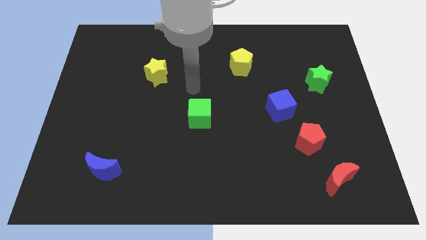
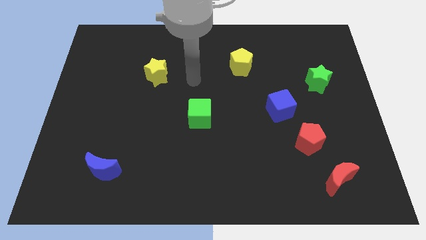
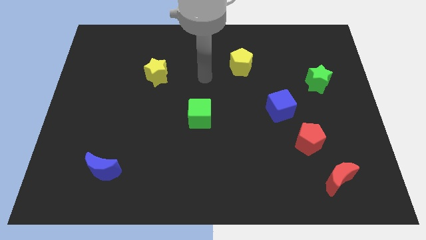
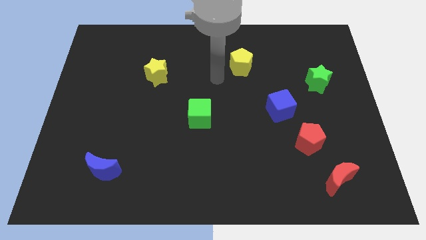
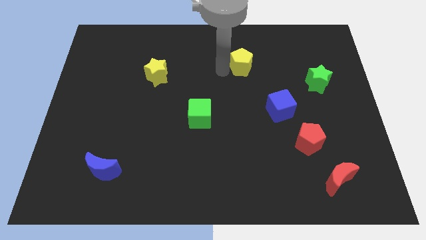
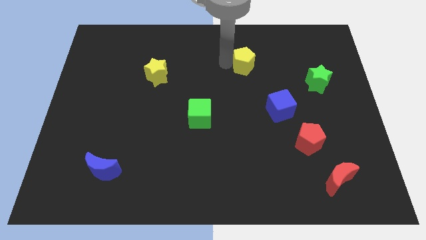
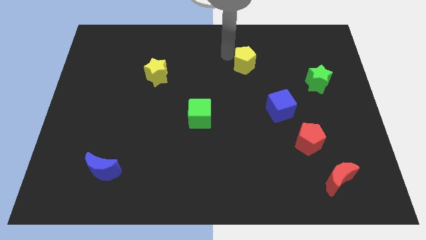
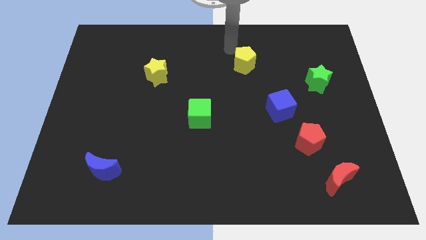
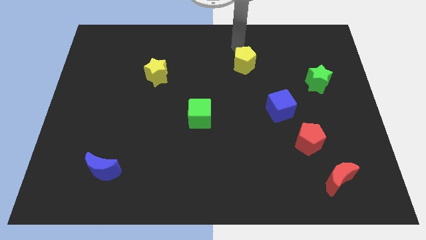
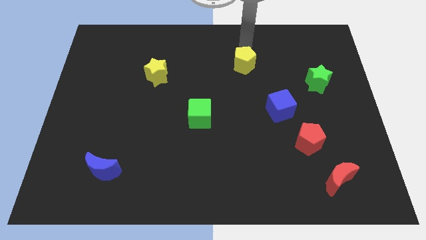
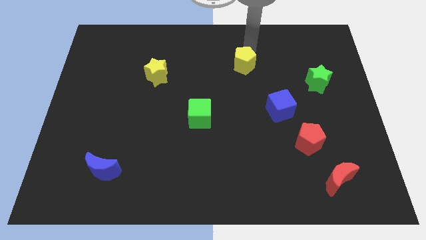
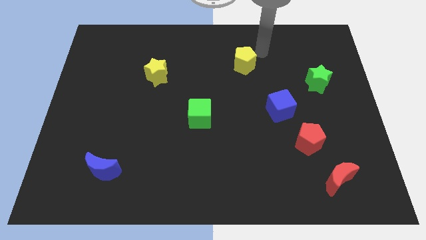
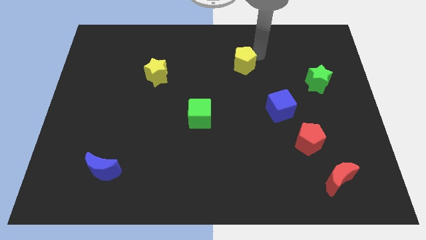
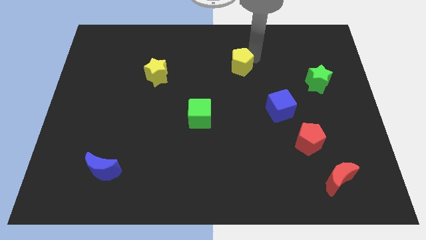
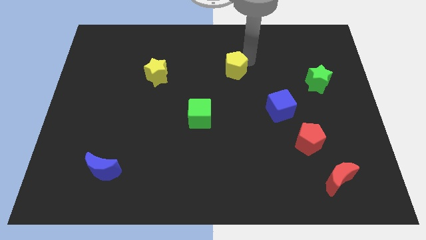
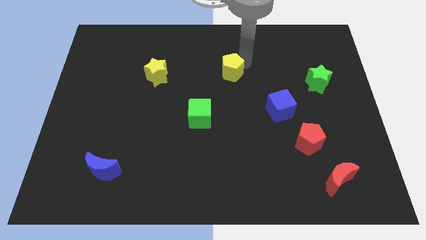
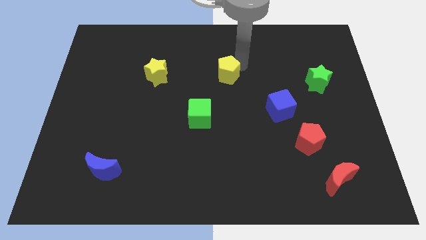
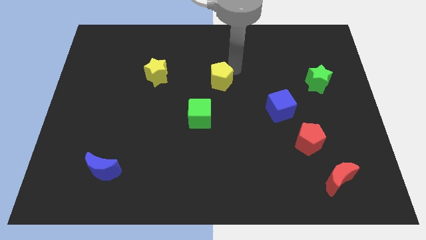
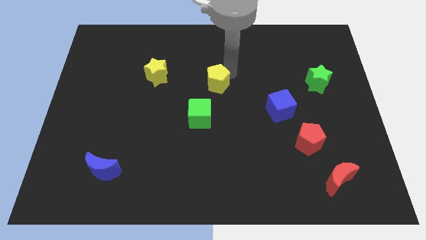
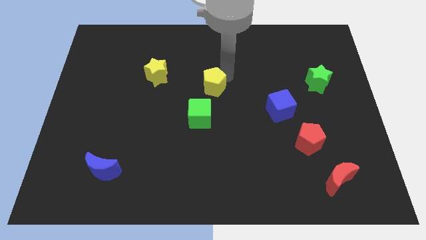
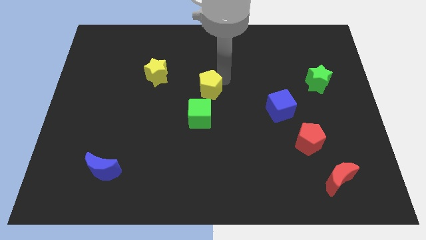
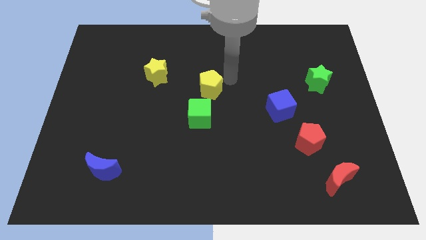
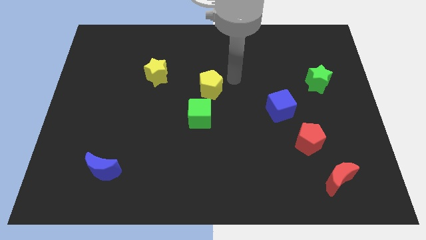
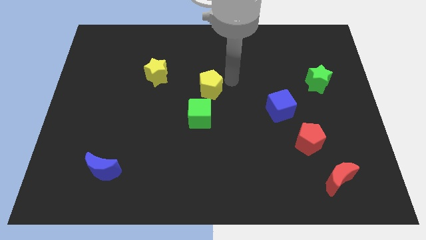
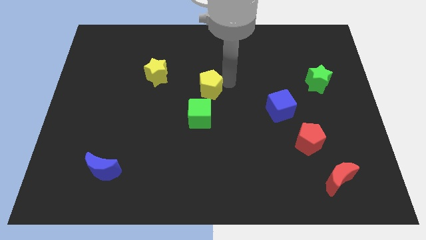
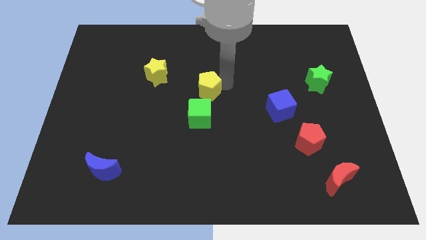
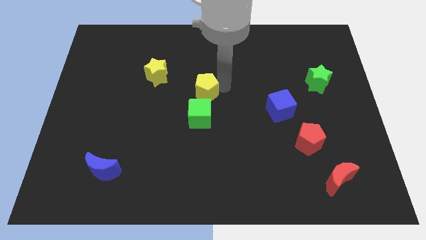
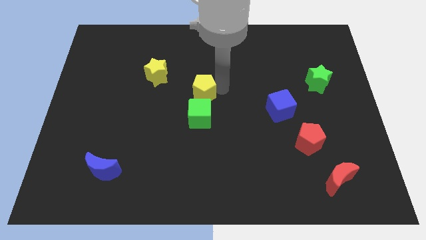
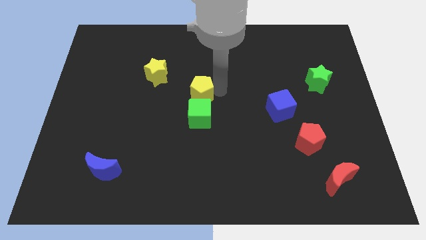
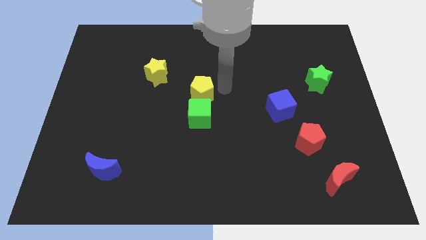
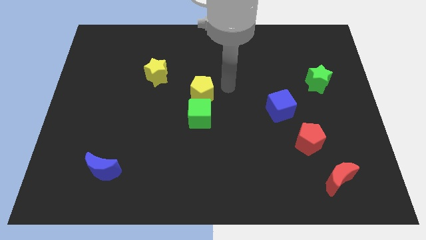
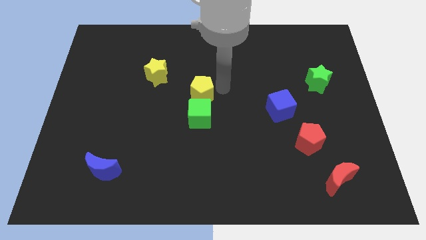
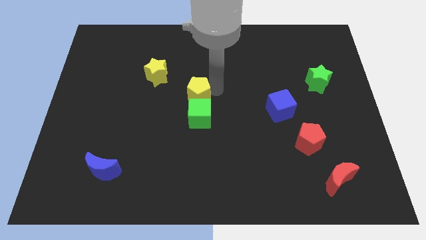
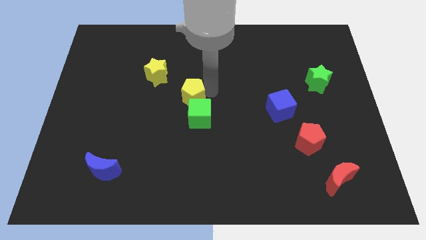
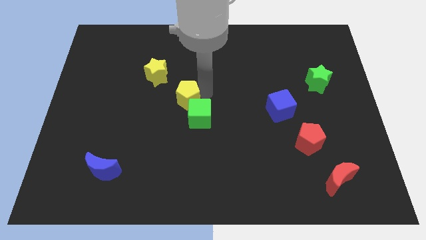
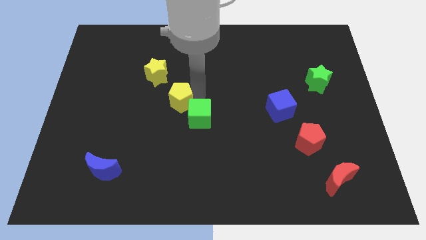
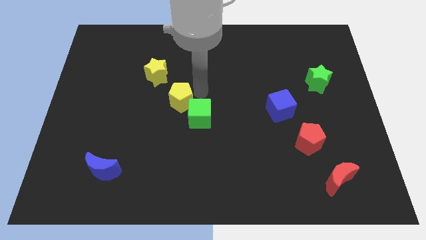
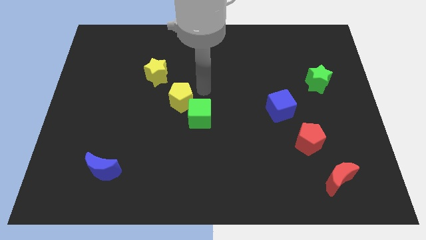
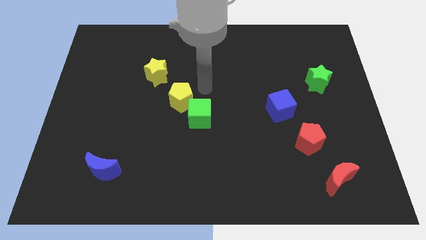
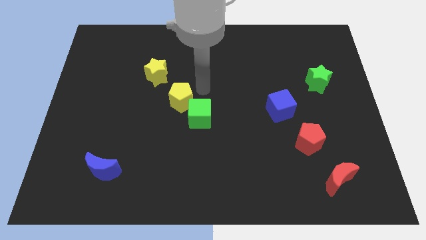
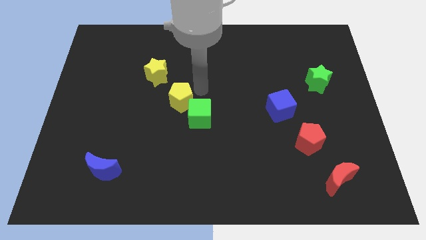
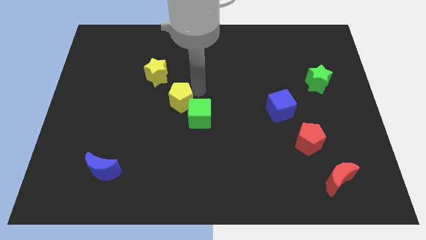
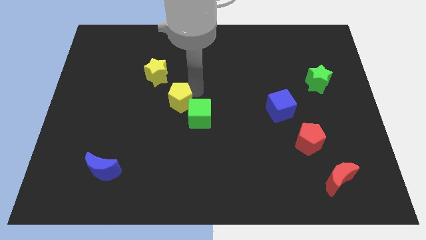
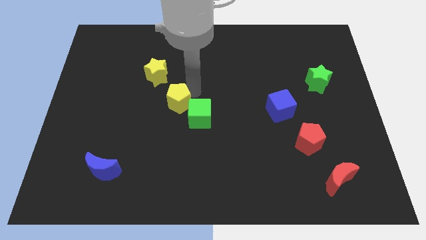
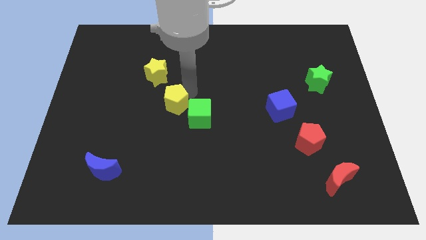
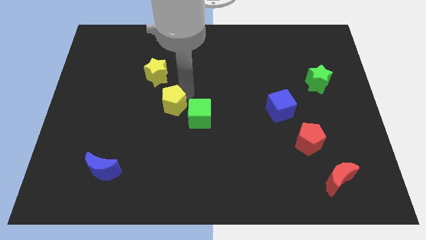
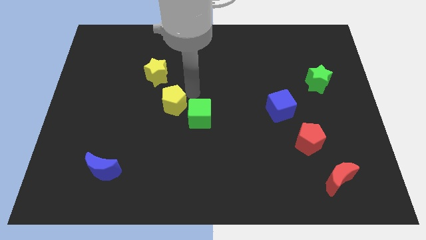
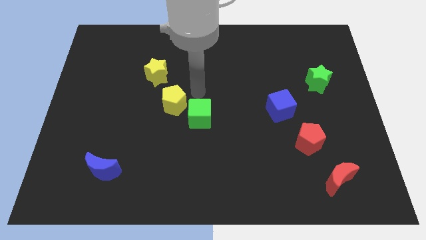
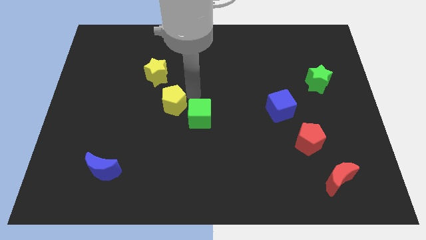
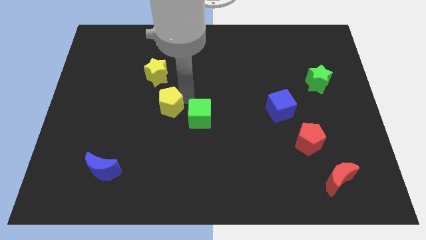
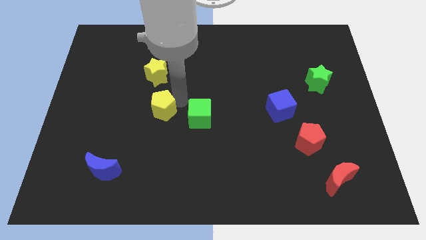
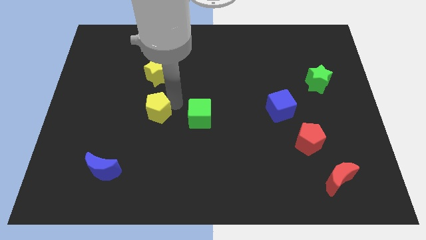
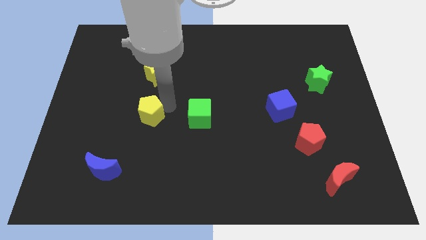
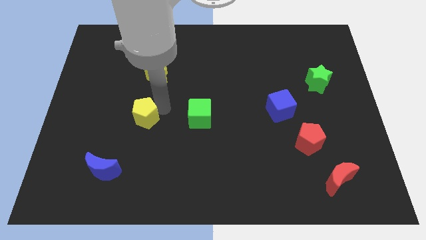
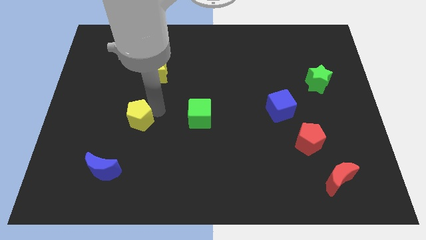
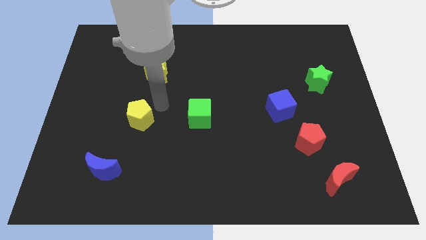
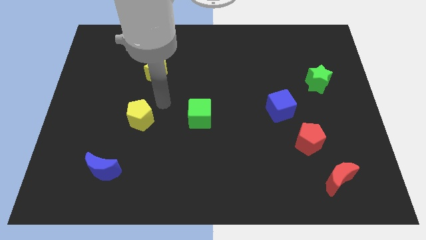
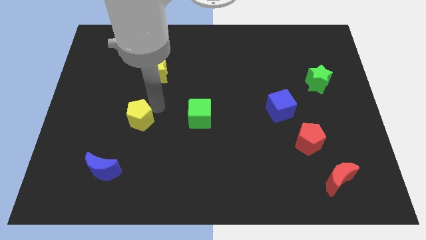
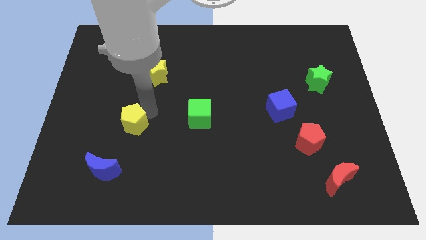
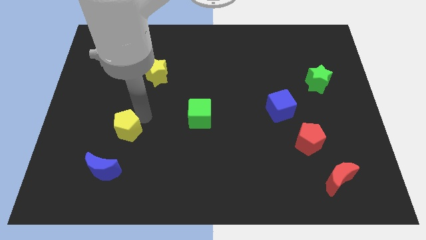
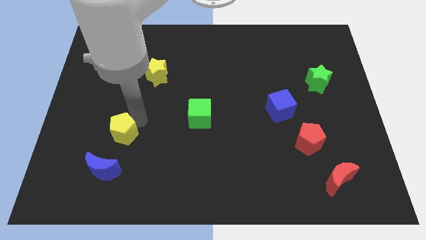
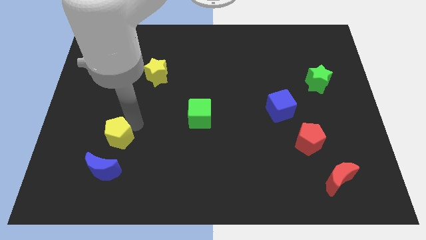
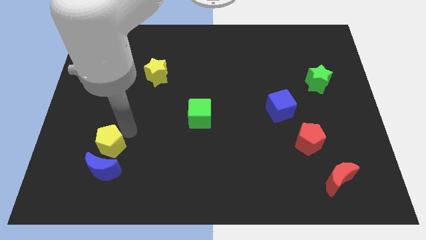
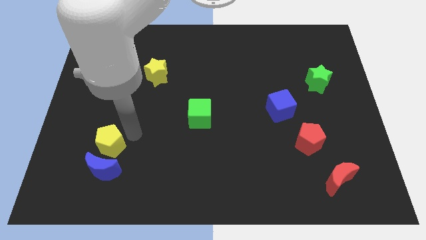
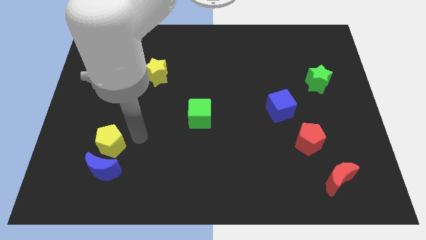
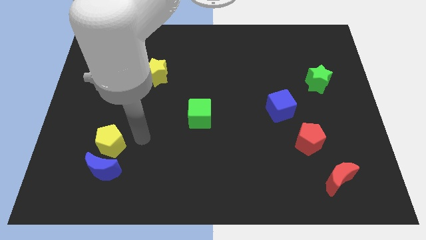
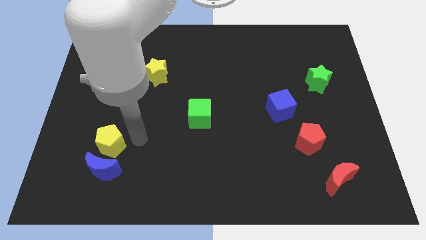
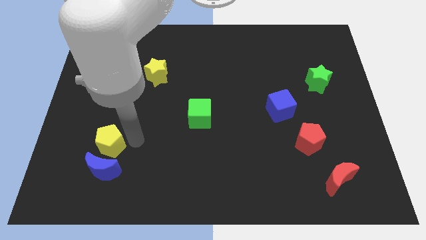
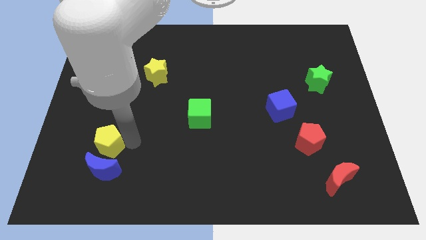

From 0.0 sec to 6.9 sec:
slide the yellow pentagon diagonally up and to the left of the blue moon
